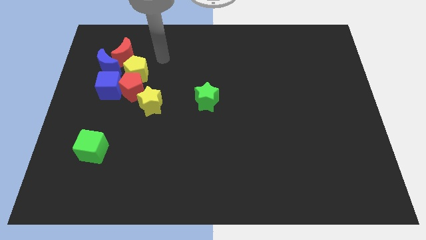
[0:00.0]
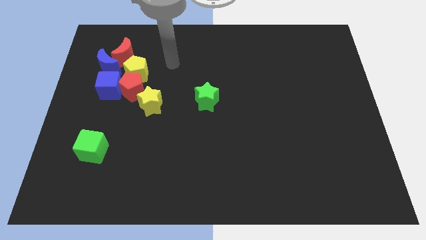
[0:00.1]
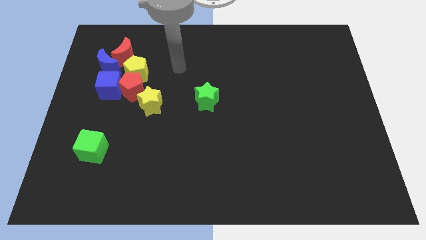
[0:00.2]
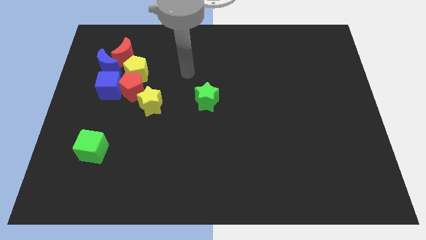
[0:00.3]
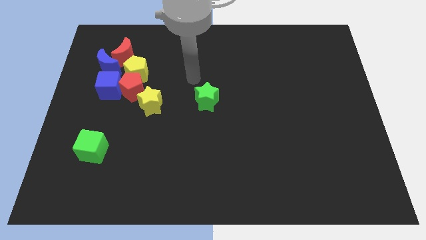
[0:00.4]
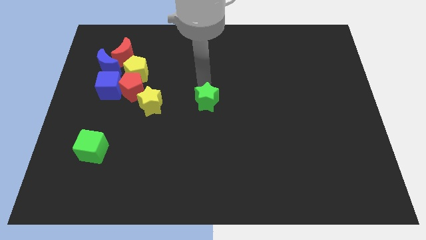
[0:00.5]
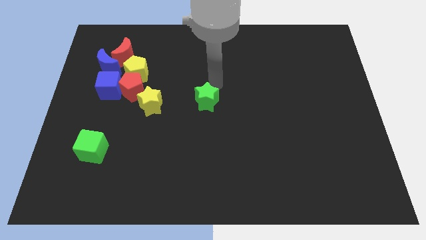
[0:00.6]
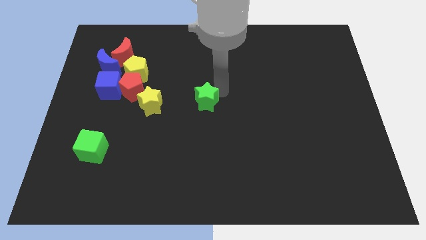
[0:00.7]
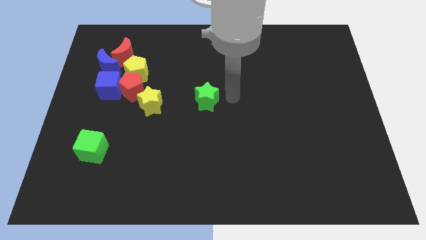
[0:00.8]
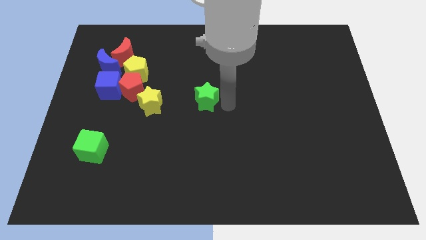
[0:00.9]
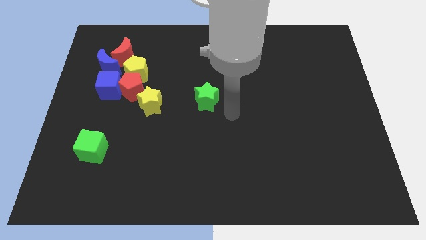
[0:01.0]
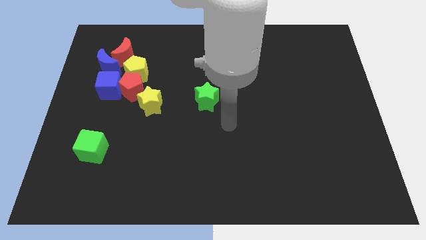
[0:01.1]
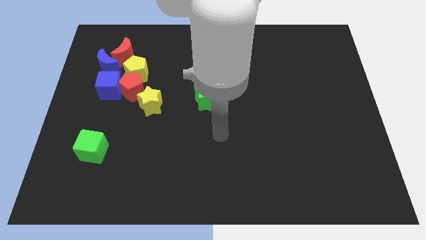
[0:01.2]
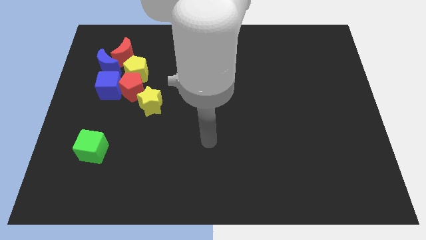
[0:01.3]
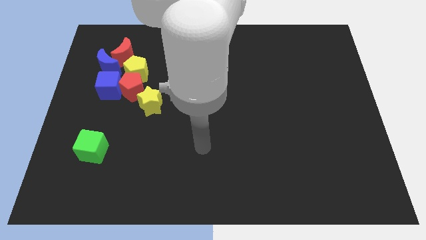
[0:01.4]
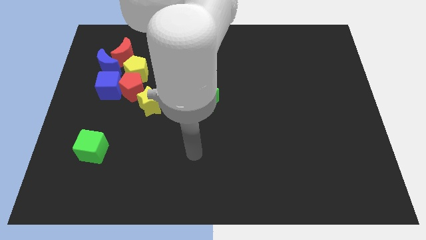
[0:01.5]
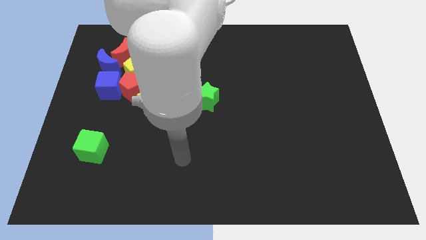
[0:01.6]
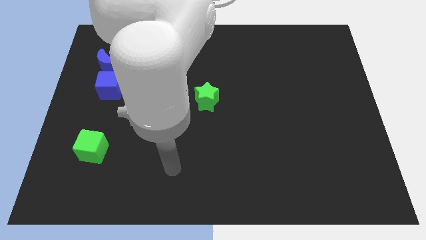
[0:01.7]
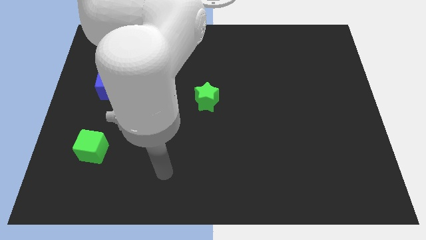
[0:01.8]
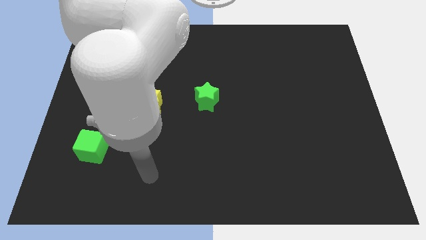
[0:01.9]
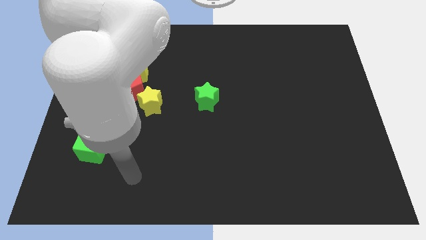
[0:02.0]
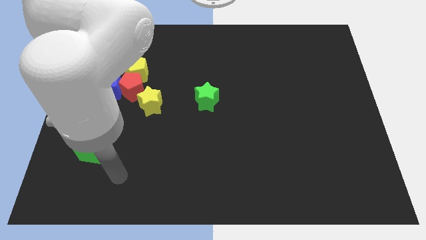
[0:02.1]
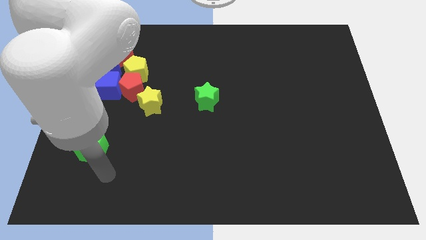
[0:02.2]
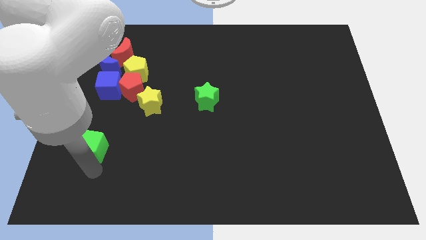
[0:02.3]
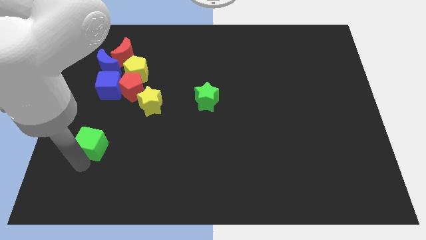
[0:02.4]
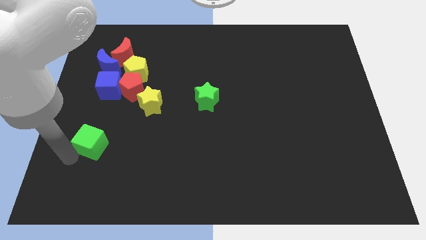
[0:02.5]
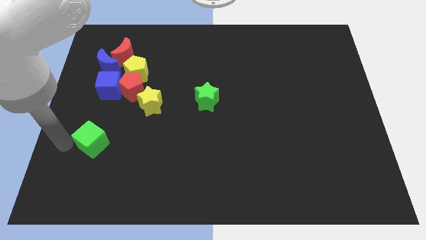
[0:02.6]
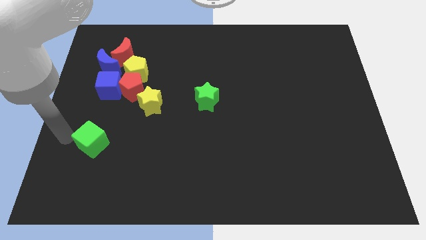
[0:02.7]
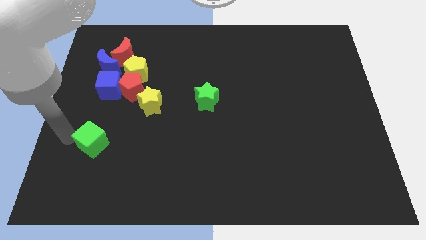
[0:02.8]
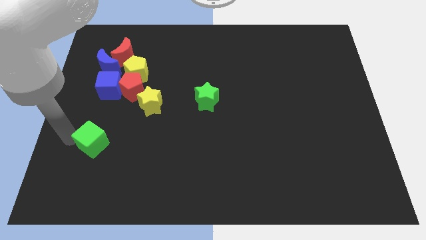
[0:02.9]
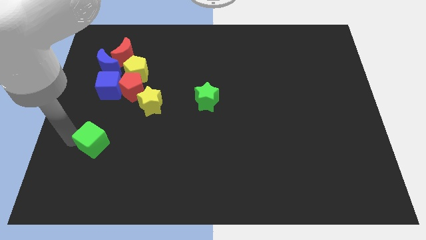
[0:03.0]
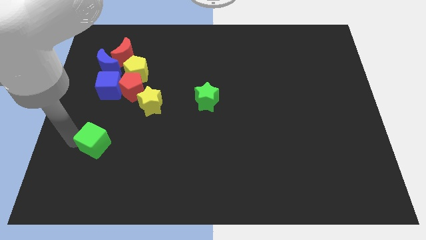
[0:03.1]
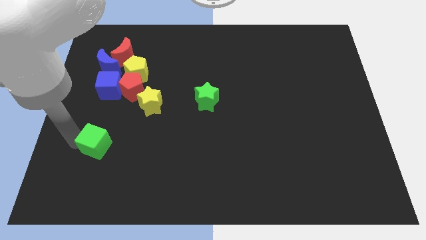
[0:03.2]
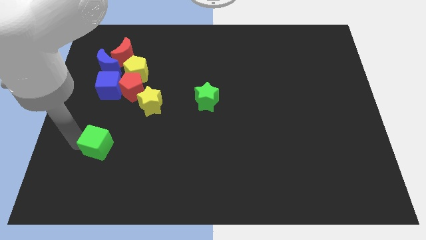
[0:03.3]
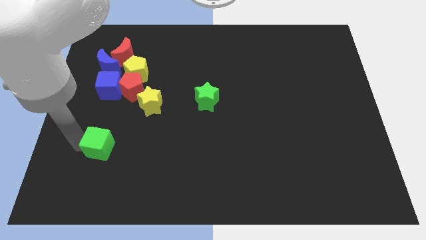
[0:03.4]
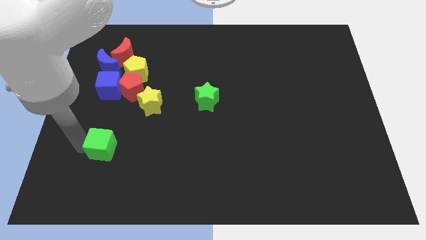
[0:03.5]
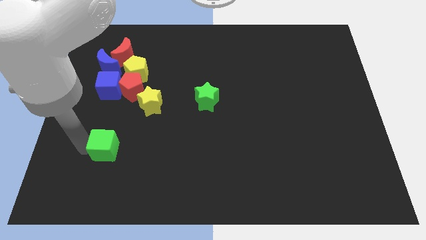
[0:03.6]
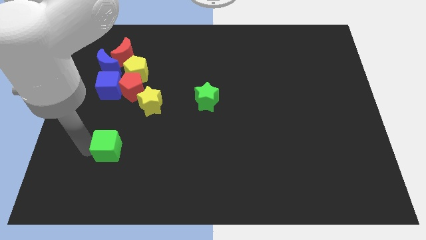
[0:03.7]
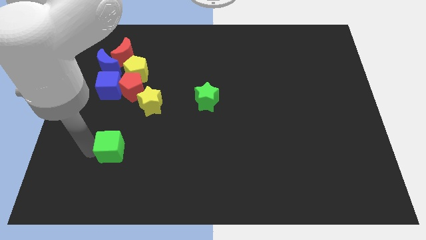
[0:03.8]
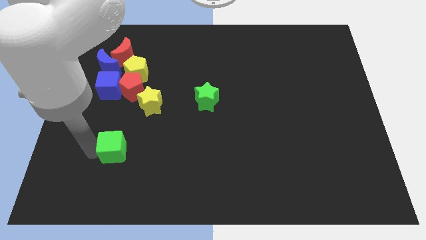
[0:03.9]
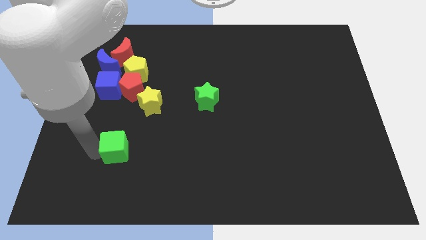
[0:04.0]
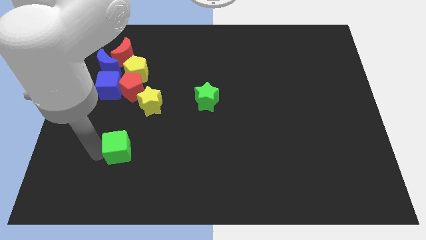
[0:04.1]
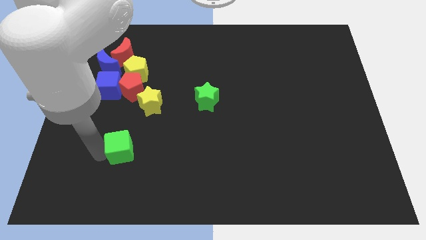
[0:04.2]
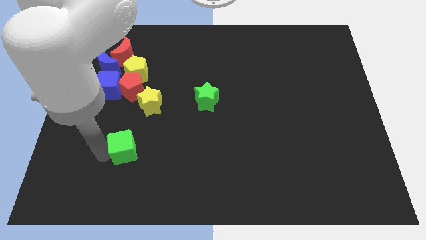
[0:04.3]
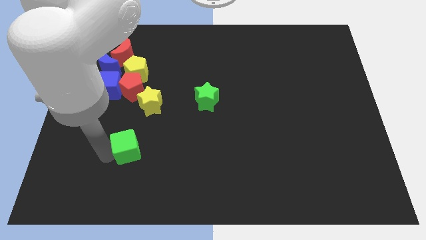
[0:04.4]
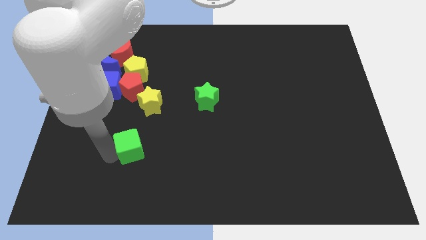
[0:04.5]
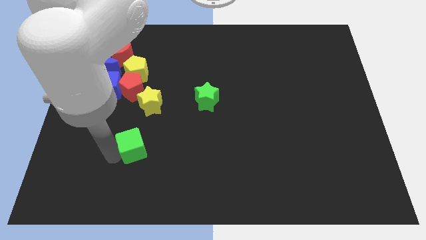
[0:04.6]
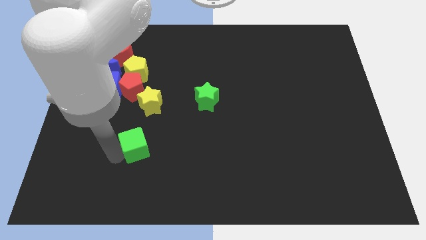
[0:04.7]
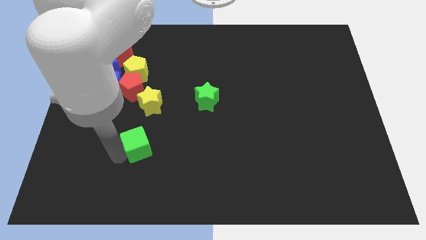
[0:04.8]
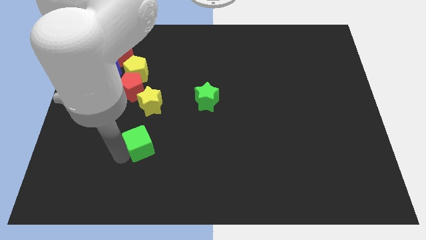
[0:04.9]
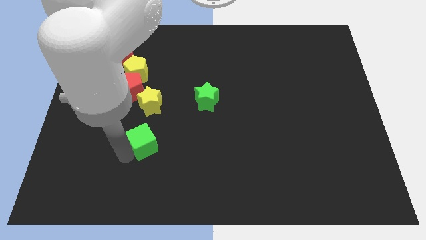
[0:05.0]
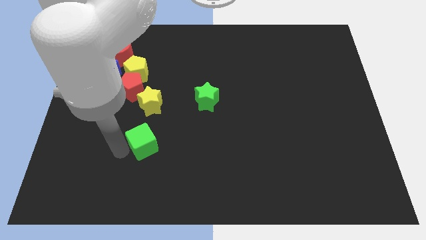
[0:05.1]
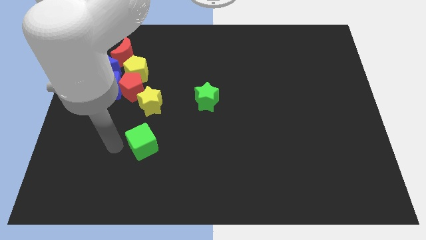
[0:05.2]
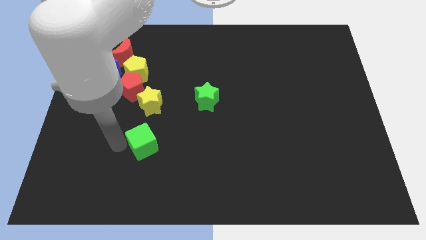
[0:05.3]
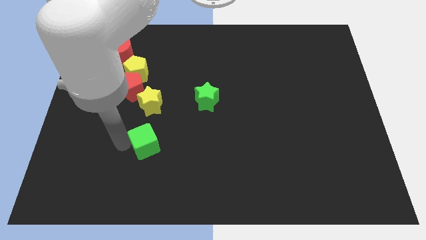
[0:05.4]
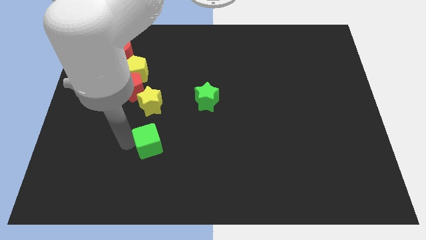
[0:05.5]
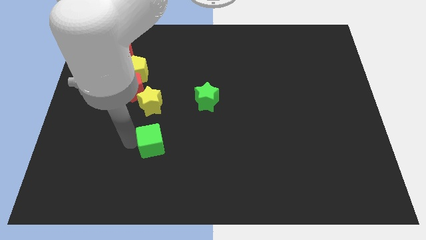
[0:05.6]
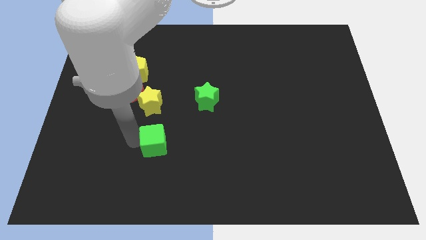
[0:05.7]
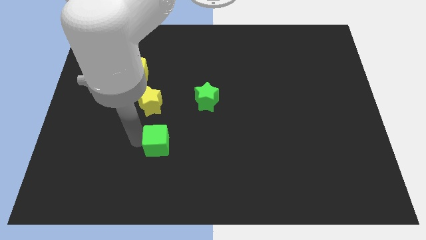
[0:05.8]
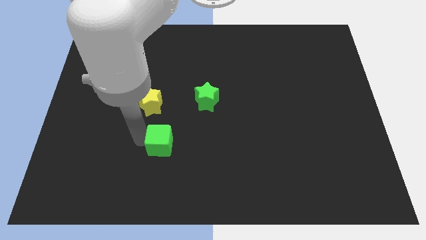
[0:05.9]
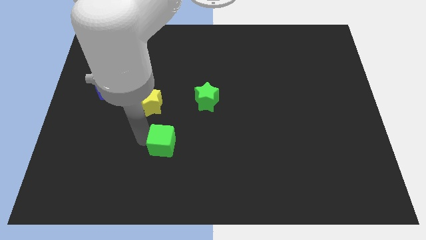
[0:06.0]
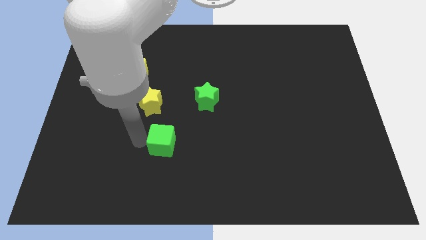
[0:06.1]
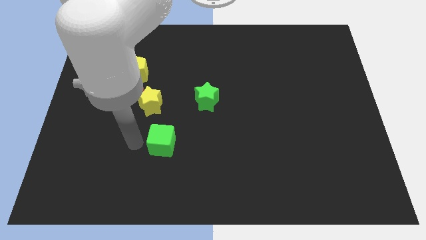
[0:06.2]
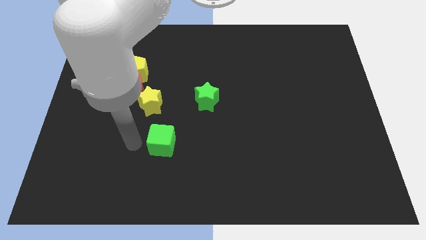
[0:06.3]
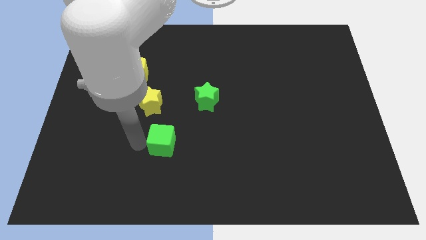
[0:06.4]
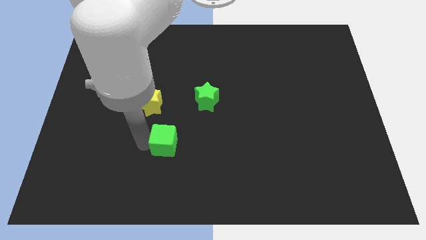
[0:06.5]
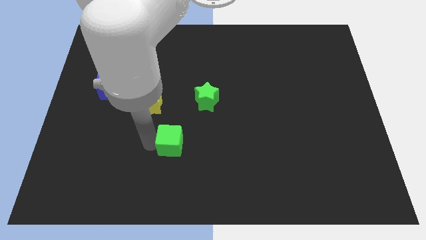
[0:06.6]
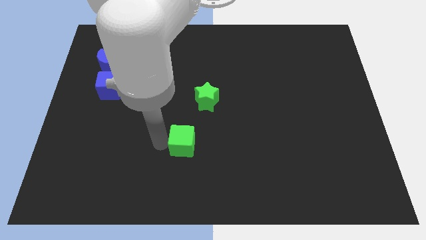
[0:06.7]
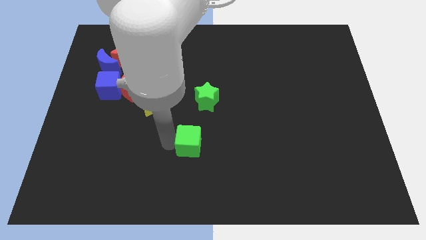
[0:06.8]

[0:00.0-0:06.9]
slide the green cube right

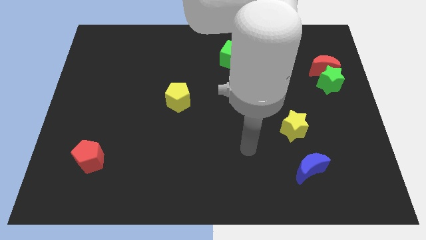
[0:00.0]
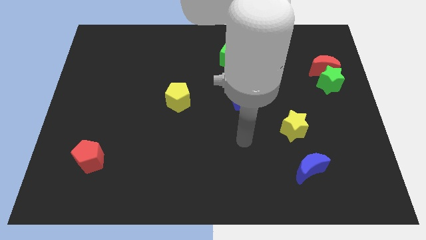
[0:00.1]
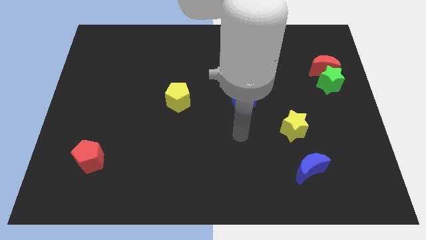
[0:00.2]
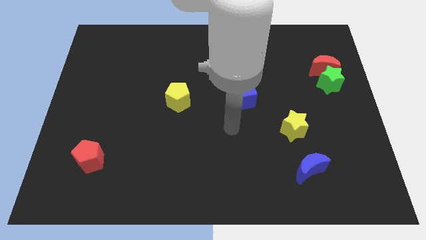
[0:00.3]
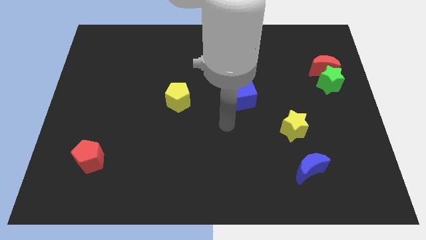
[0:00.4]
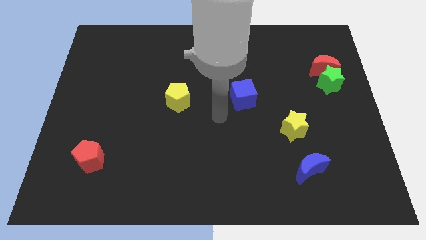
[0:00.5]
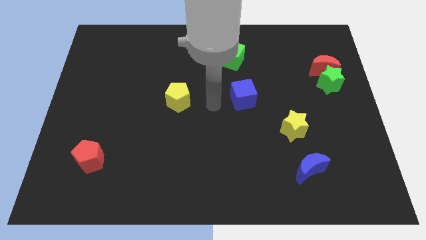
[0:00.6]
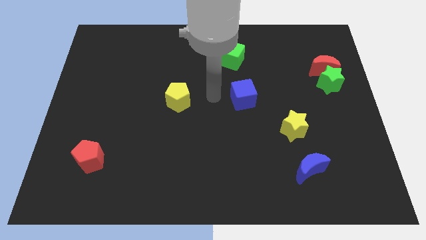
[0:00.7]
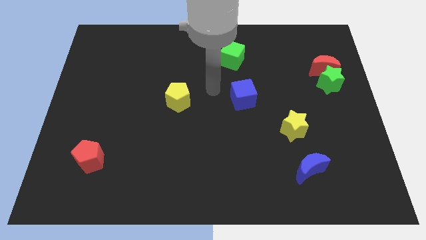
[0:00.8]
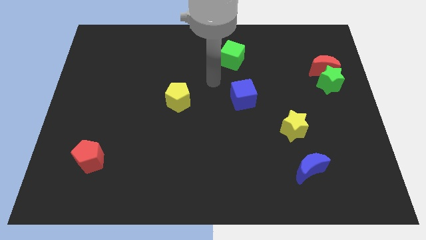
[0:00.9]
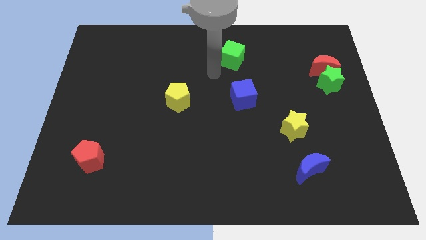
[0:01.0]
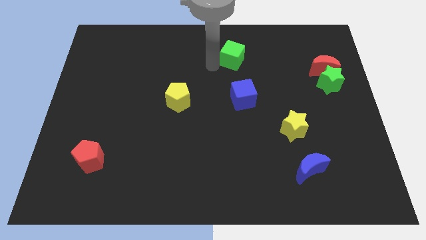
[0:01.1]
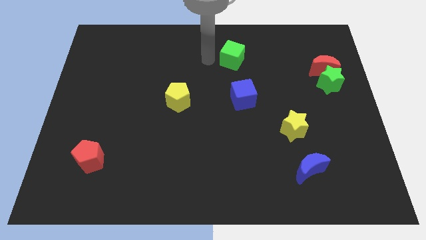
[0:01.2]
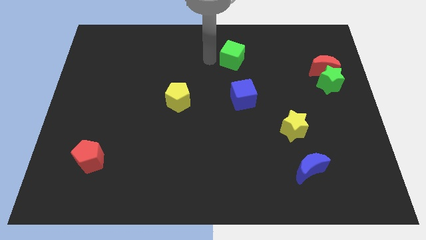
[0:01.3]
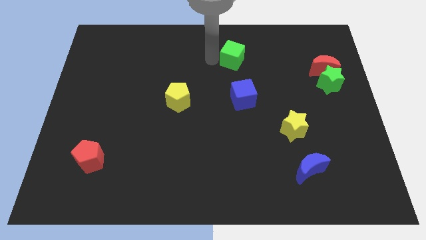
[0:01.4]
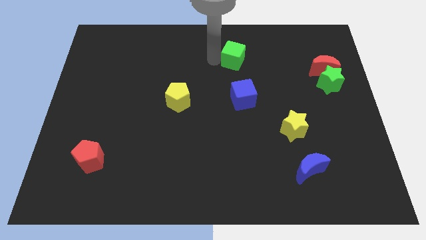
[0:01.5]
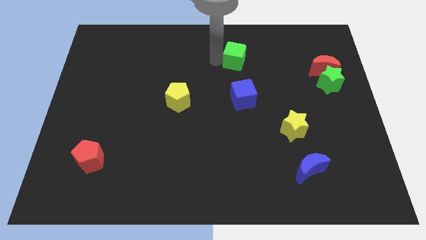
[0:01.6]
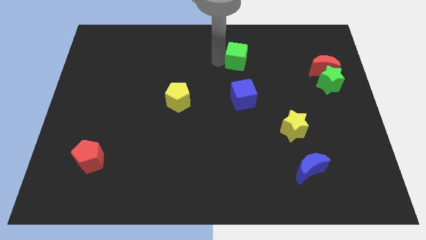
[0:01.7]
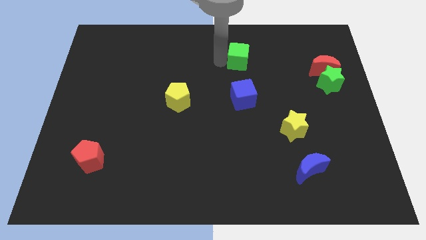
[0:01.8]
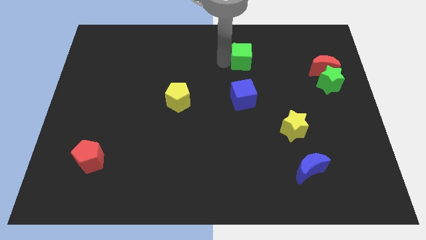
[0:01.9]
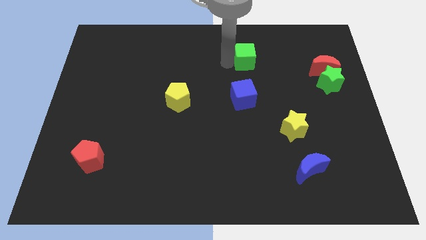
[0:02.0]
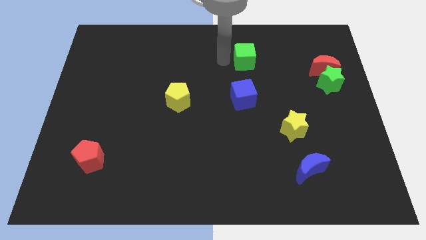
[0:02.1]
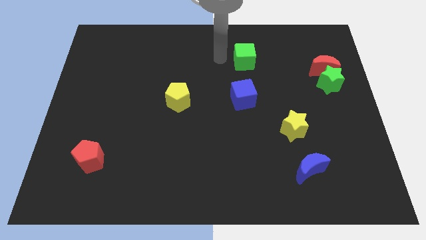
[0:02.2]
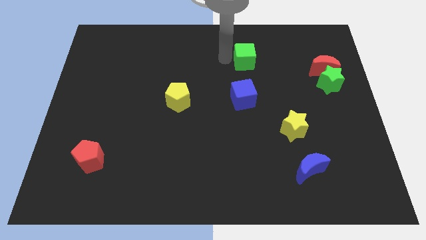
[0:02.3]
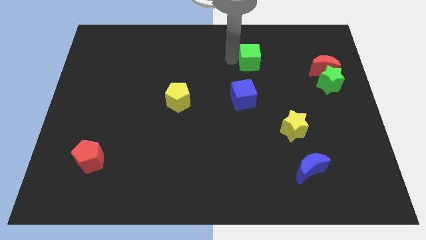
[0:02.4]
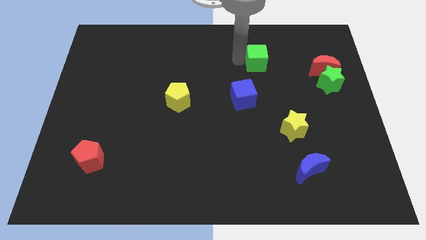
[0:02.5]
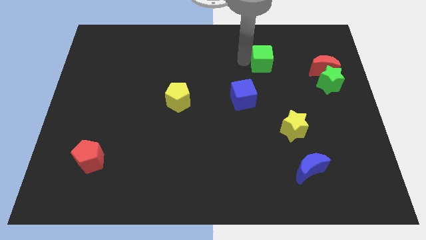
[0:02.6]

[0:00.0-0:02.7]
slightly slide the green cube right
